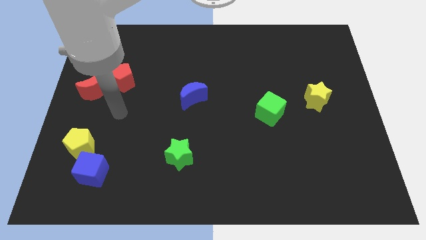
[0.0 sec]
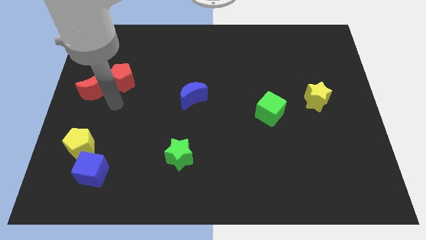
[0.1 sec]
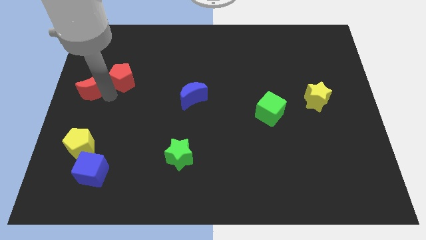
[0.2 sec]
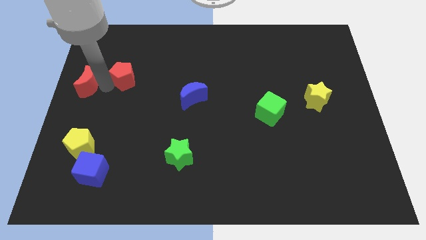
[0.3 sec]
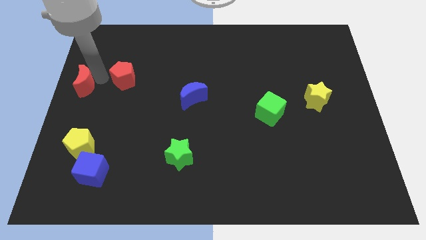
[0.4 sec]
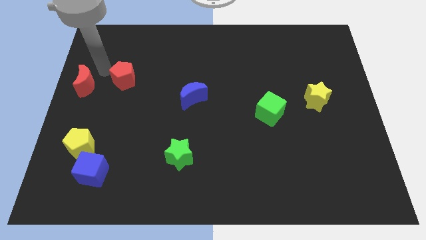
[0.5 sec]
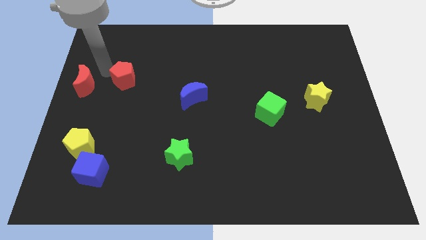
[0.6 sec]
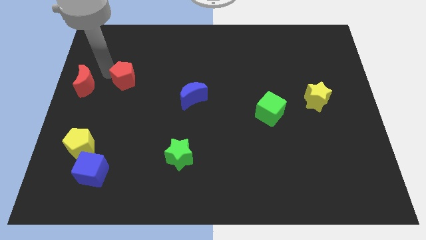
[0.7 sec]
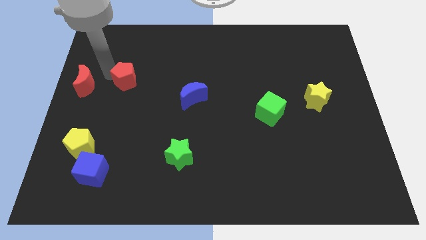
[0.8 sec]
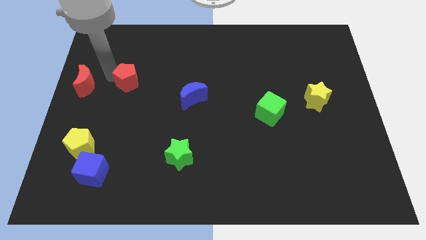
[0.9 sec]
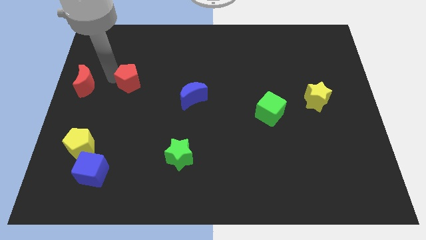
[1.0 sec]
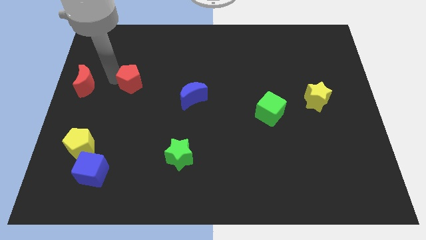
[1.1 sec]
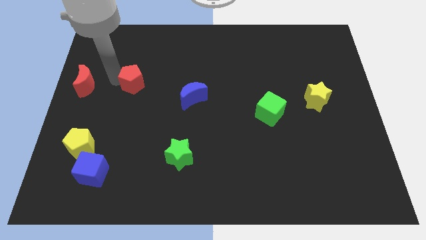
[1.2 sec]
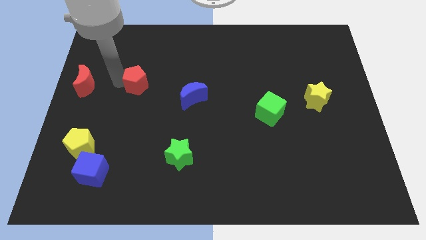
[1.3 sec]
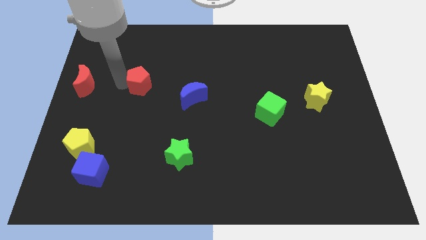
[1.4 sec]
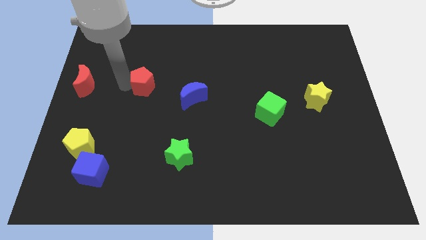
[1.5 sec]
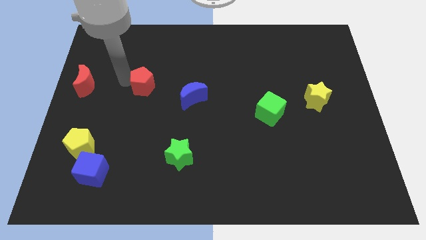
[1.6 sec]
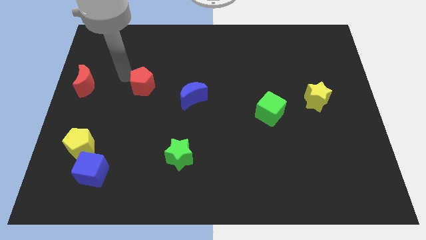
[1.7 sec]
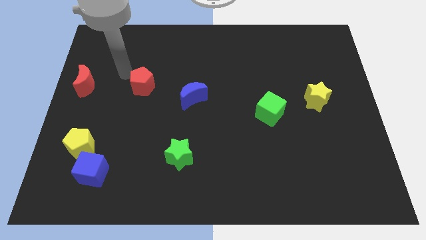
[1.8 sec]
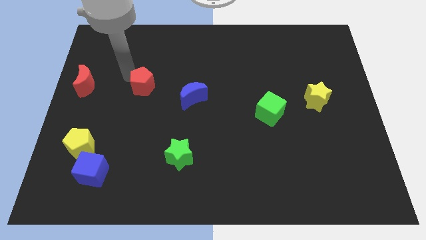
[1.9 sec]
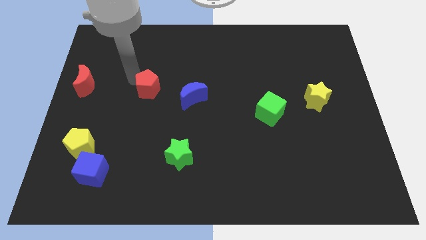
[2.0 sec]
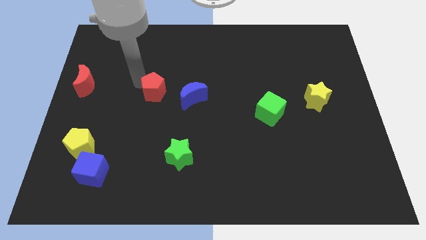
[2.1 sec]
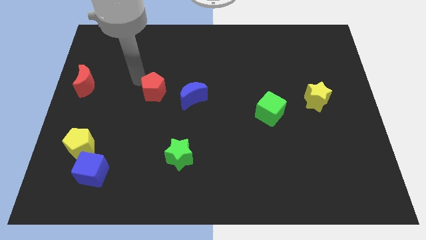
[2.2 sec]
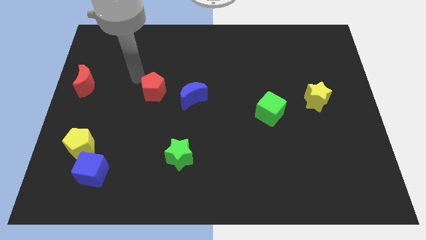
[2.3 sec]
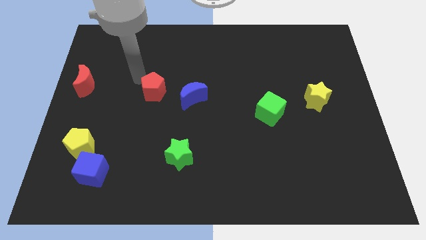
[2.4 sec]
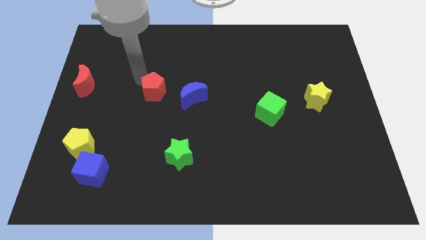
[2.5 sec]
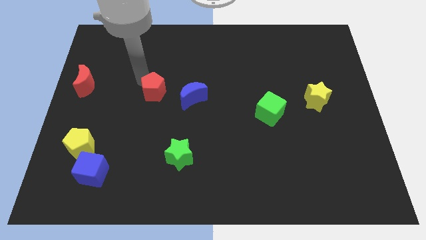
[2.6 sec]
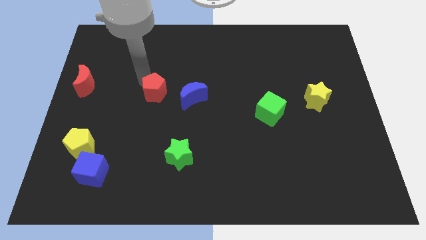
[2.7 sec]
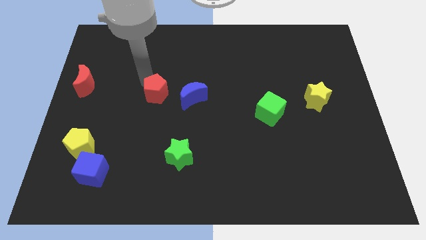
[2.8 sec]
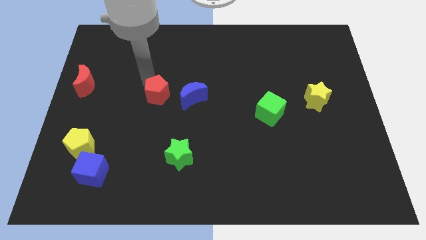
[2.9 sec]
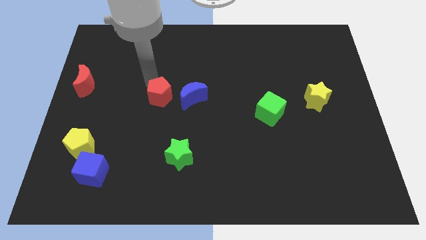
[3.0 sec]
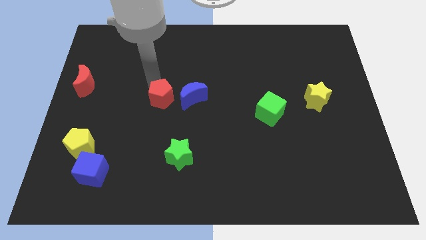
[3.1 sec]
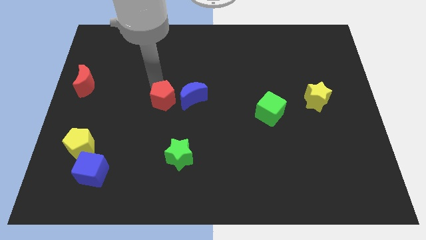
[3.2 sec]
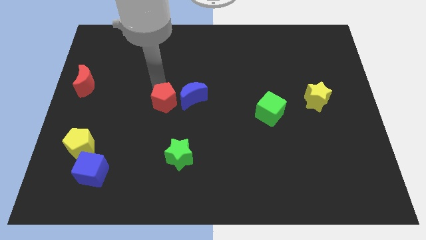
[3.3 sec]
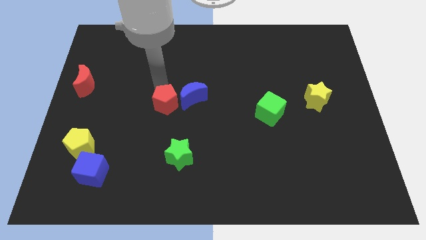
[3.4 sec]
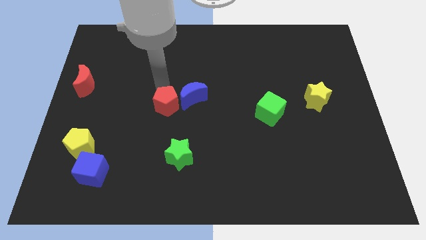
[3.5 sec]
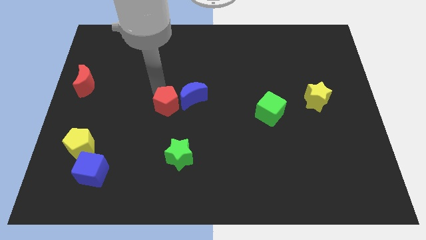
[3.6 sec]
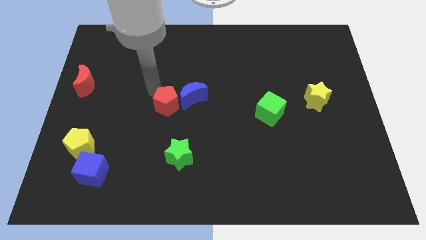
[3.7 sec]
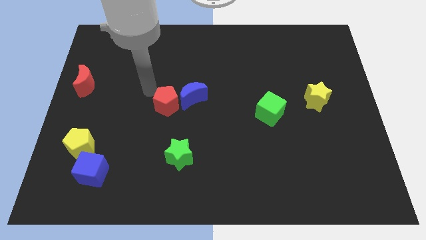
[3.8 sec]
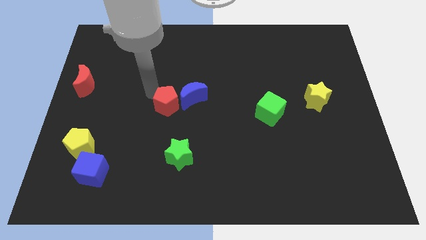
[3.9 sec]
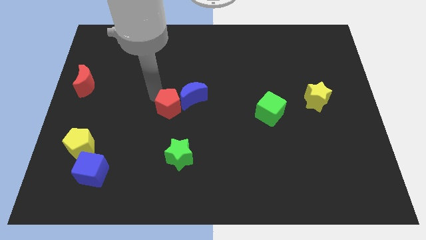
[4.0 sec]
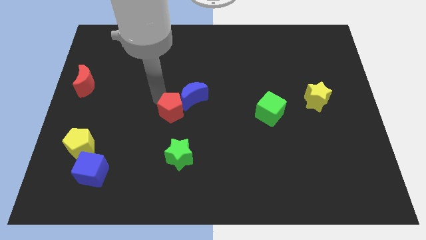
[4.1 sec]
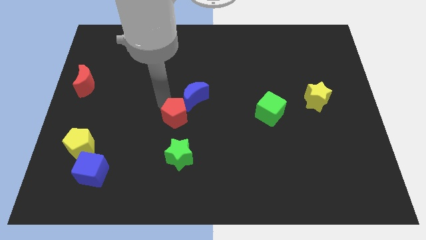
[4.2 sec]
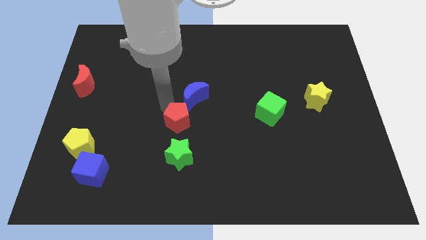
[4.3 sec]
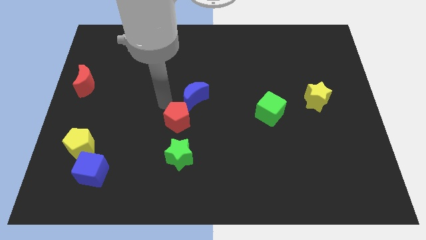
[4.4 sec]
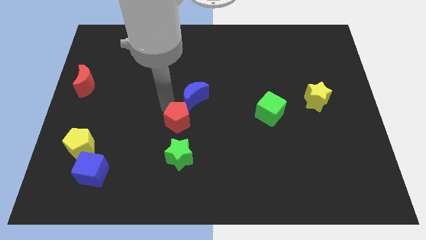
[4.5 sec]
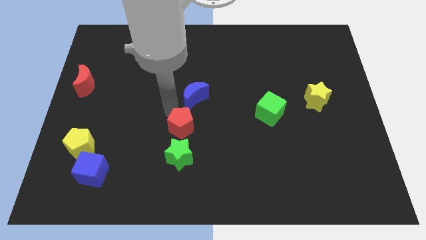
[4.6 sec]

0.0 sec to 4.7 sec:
move the red pentagon downwards and right diagonally

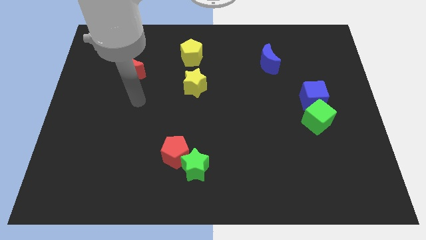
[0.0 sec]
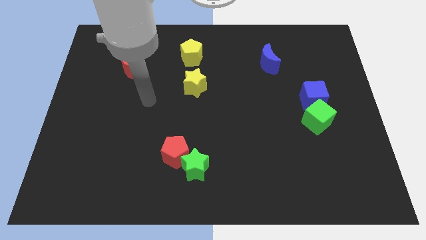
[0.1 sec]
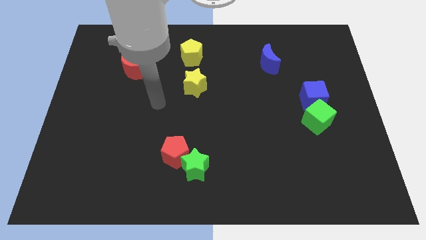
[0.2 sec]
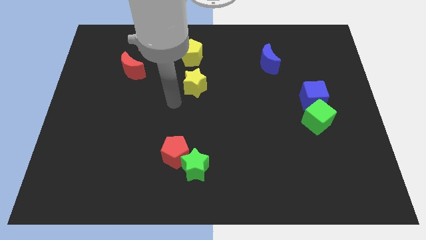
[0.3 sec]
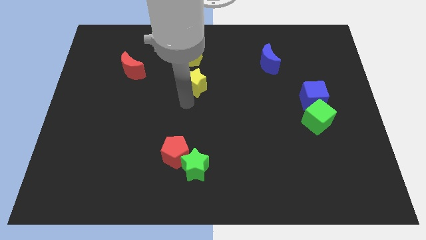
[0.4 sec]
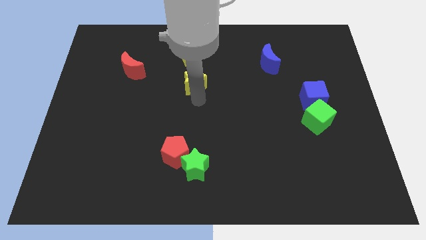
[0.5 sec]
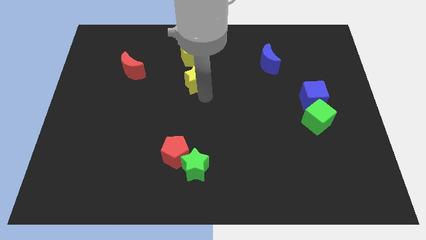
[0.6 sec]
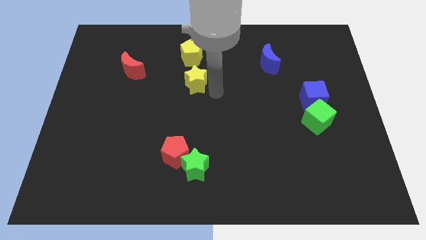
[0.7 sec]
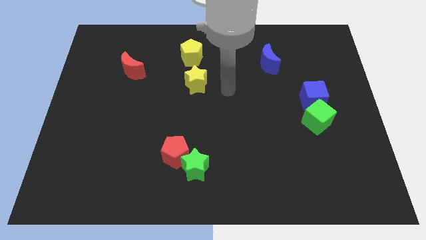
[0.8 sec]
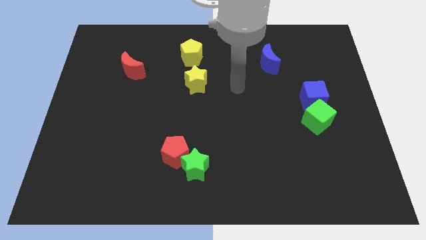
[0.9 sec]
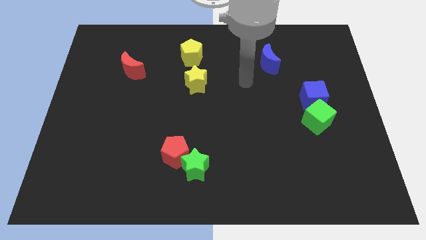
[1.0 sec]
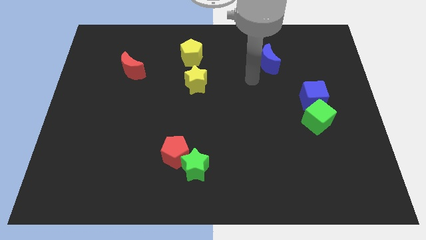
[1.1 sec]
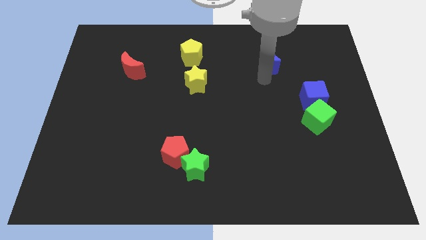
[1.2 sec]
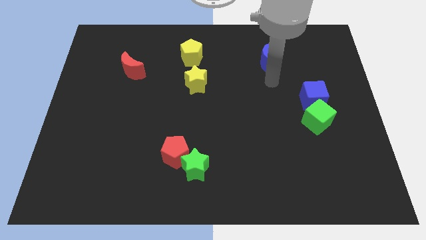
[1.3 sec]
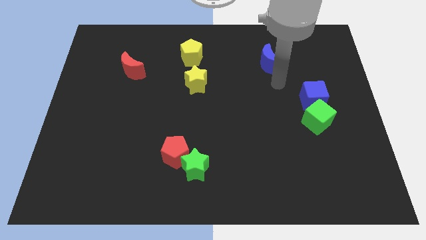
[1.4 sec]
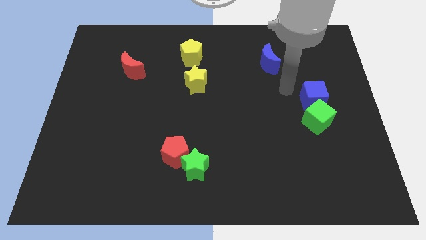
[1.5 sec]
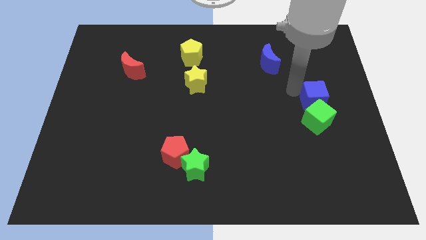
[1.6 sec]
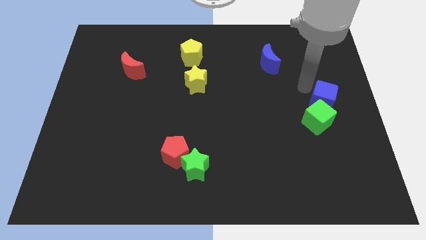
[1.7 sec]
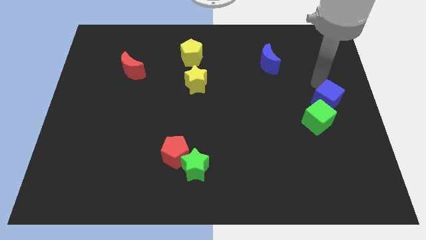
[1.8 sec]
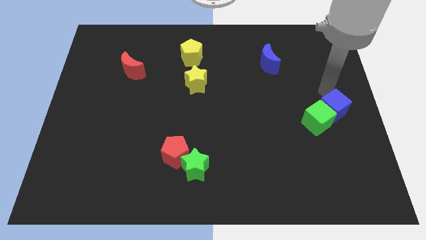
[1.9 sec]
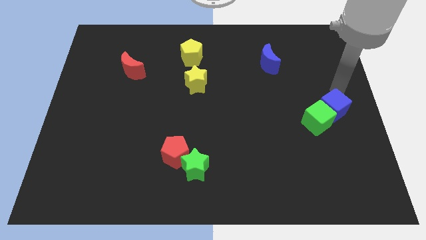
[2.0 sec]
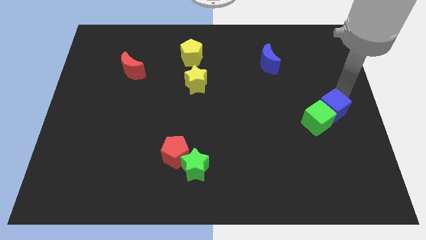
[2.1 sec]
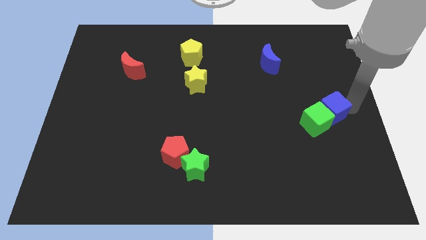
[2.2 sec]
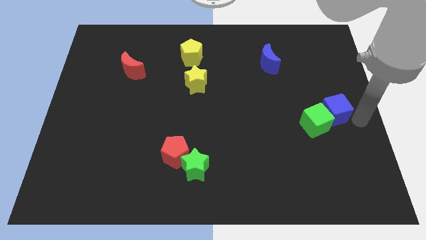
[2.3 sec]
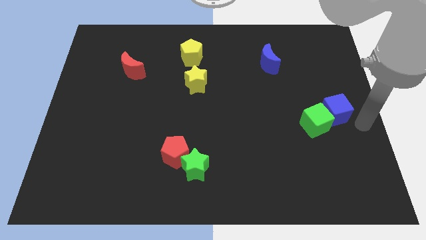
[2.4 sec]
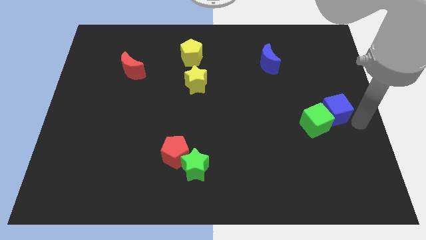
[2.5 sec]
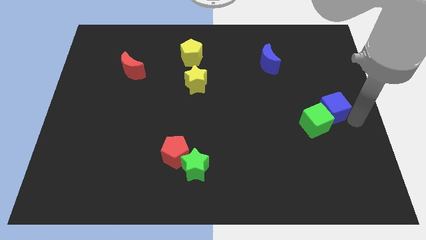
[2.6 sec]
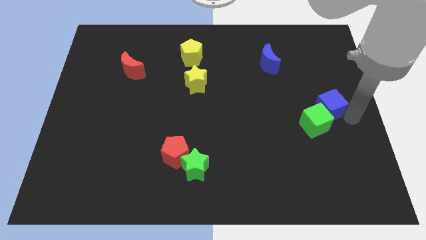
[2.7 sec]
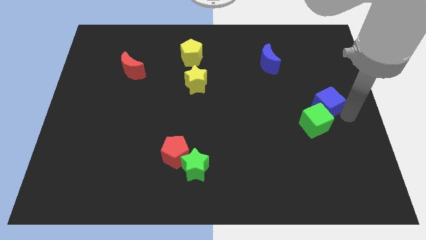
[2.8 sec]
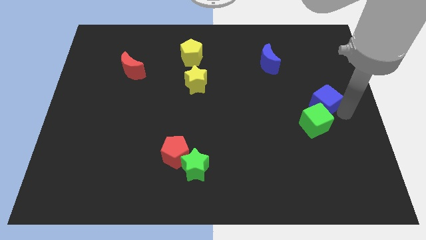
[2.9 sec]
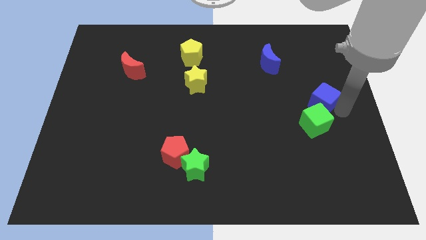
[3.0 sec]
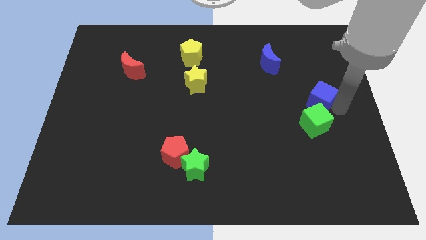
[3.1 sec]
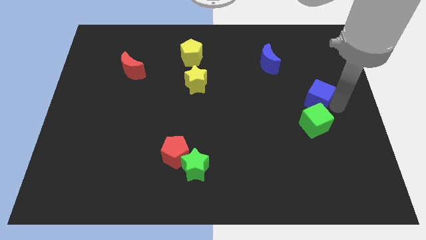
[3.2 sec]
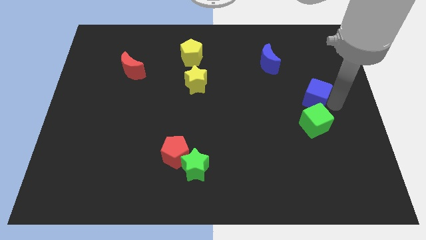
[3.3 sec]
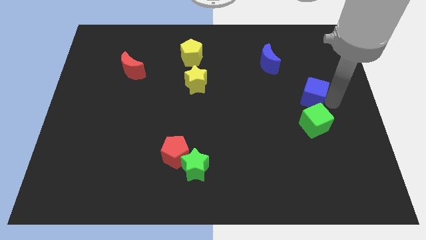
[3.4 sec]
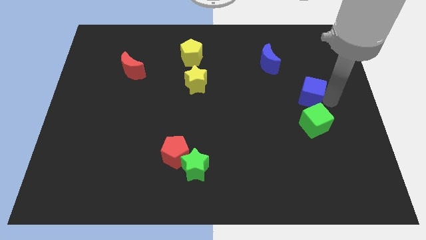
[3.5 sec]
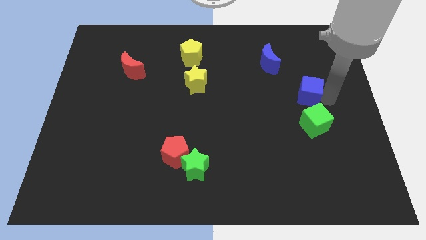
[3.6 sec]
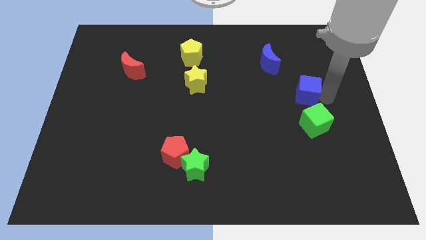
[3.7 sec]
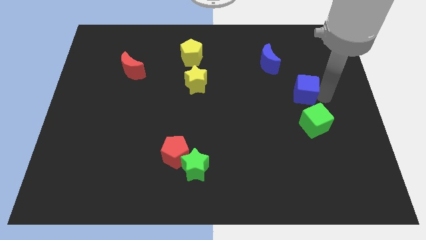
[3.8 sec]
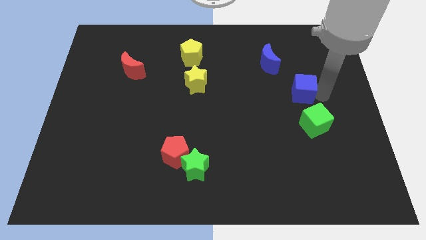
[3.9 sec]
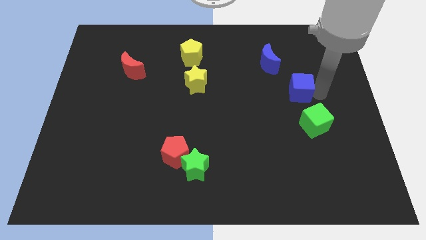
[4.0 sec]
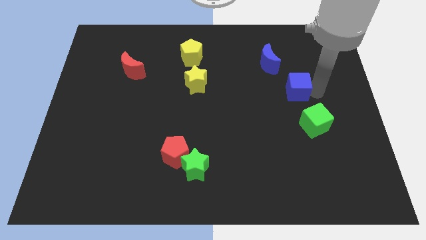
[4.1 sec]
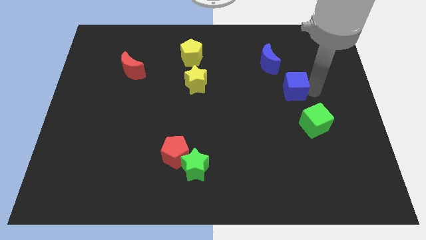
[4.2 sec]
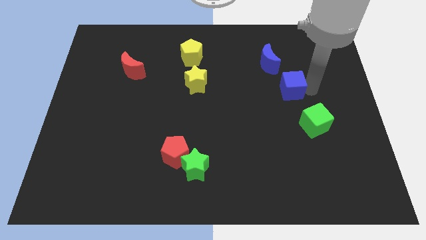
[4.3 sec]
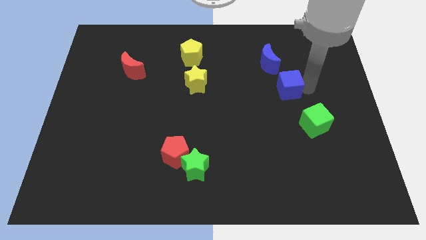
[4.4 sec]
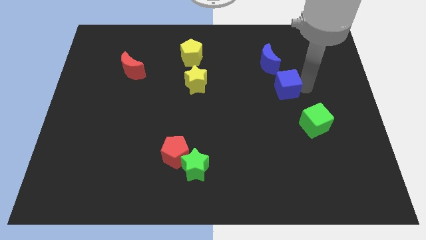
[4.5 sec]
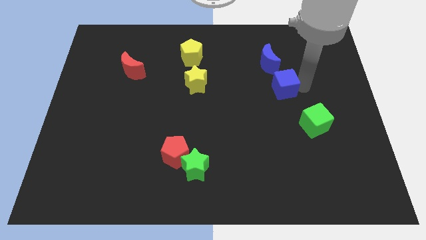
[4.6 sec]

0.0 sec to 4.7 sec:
slightly slide the blue cube upwards and left diagonally
